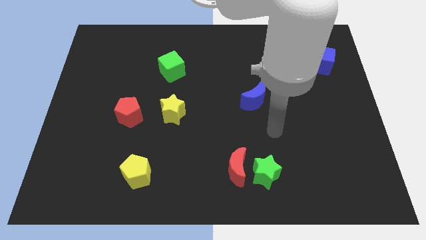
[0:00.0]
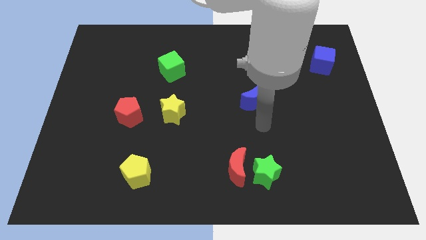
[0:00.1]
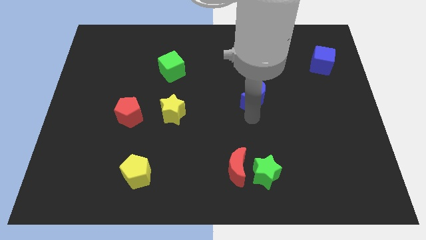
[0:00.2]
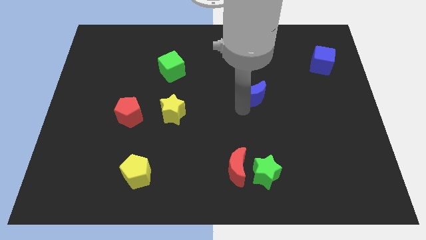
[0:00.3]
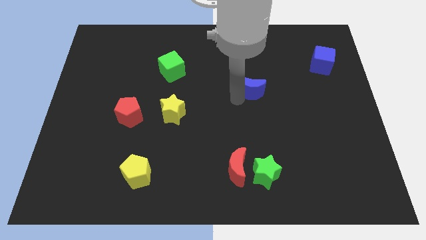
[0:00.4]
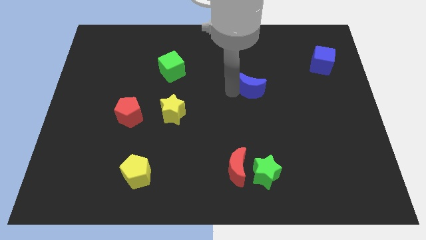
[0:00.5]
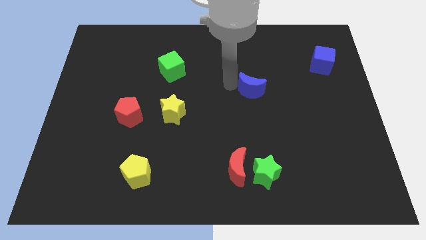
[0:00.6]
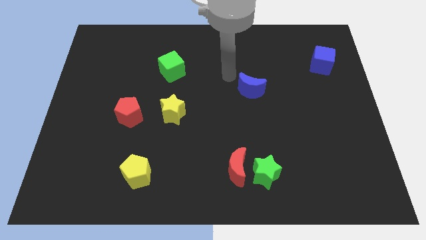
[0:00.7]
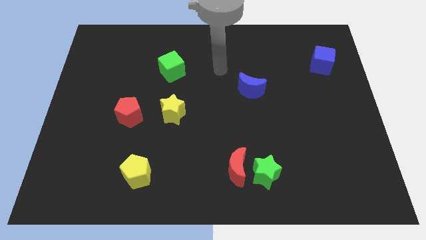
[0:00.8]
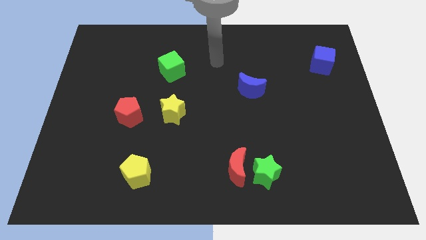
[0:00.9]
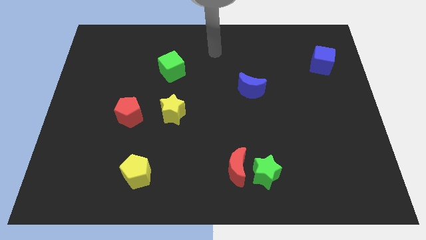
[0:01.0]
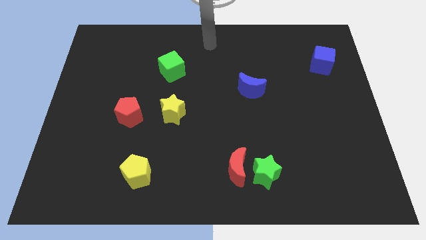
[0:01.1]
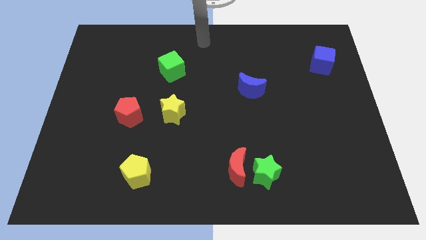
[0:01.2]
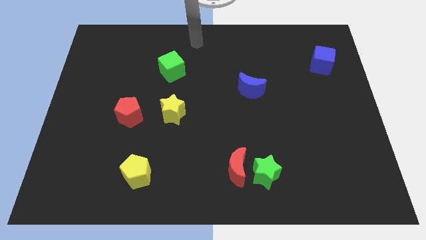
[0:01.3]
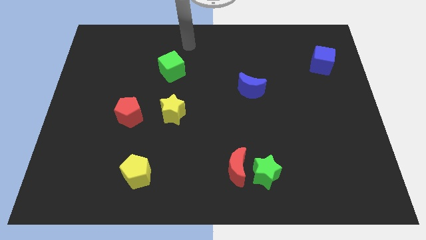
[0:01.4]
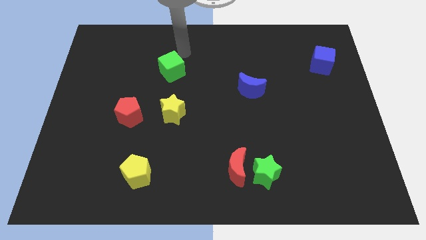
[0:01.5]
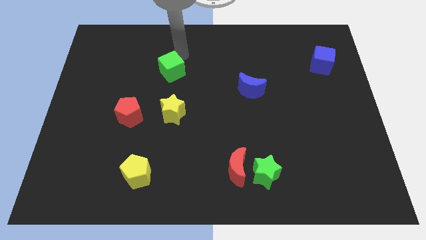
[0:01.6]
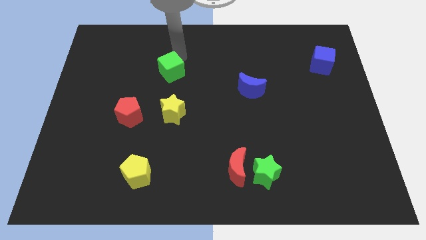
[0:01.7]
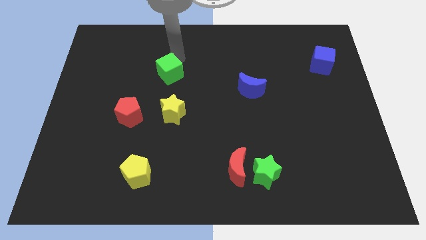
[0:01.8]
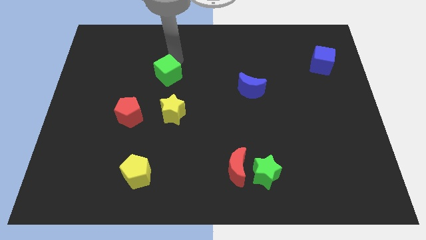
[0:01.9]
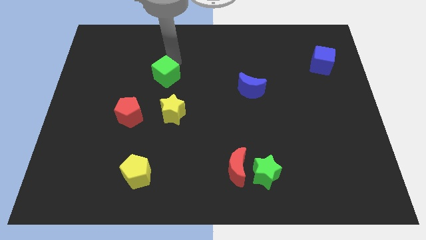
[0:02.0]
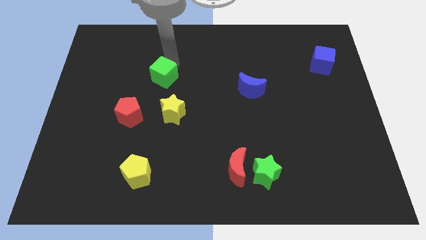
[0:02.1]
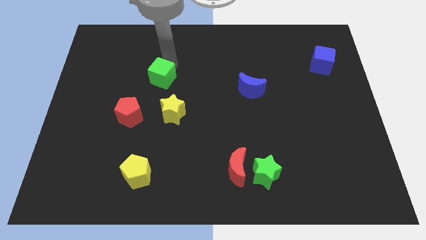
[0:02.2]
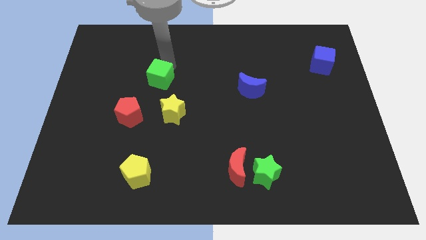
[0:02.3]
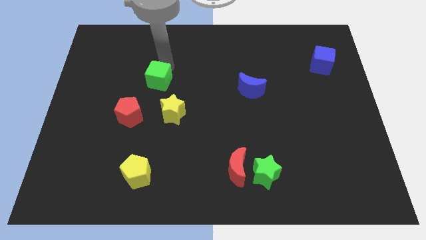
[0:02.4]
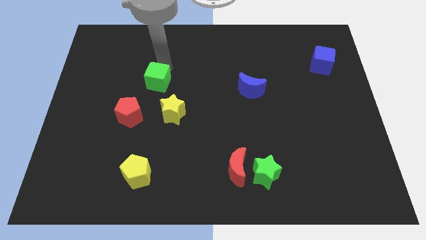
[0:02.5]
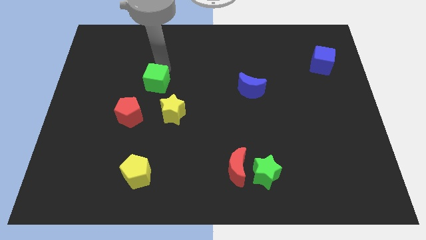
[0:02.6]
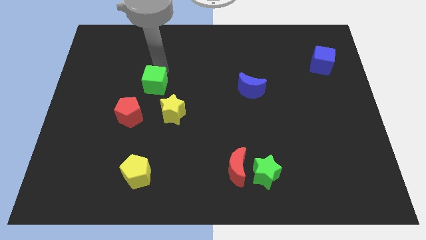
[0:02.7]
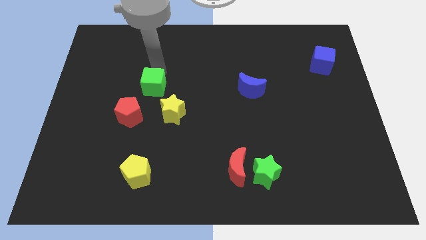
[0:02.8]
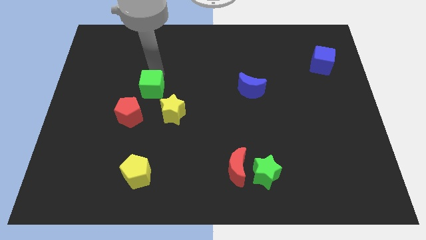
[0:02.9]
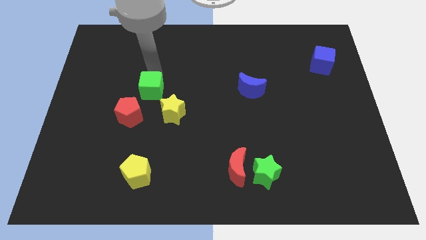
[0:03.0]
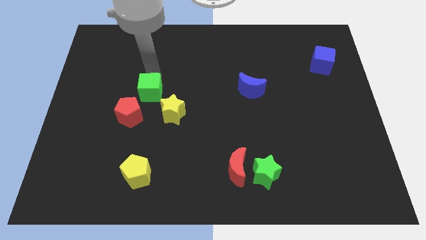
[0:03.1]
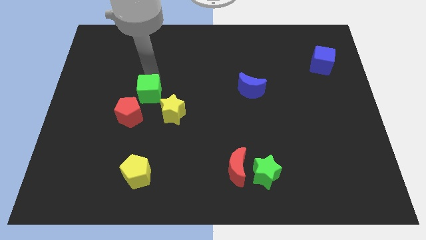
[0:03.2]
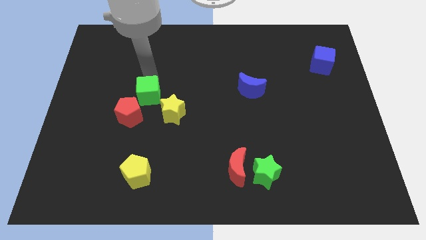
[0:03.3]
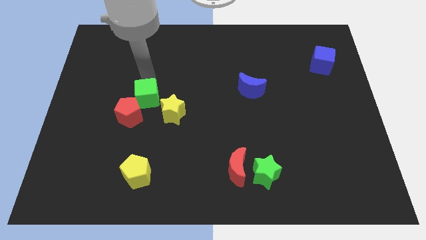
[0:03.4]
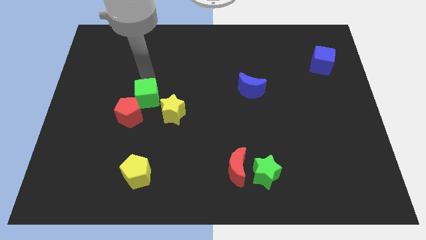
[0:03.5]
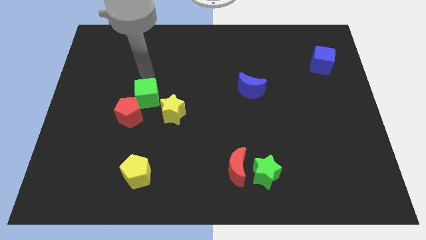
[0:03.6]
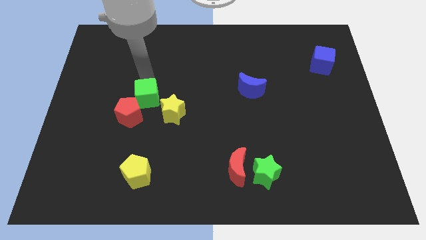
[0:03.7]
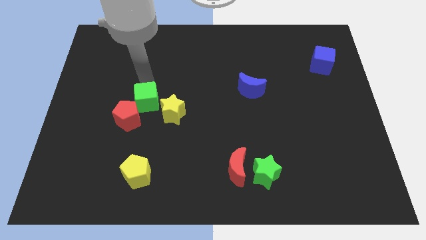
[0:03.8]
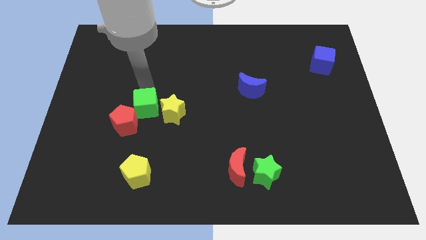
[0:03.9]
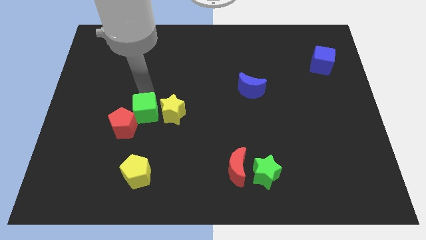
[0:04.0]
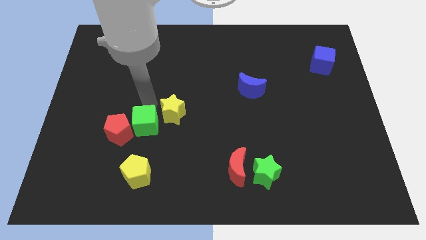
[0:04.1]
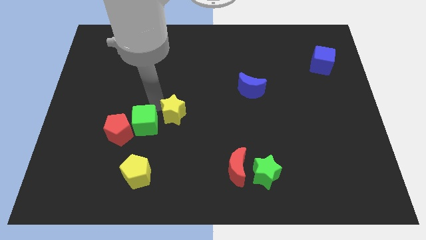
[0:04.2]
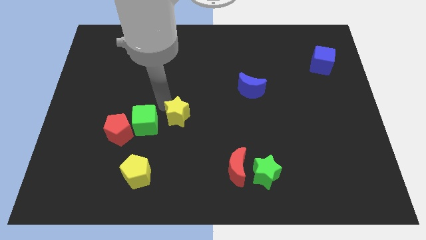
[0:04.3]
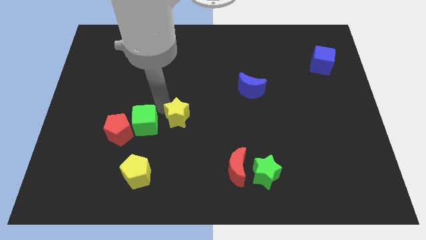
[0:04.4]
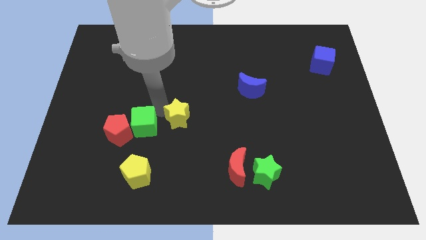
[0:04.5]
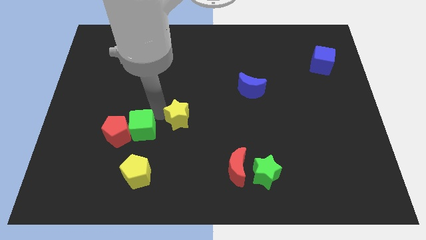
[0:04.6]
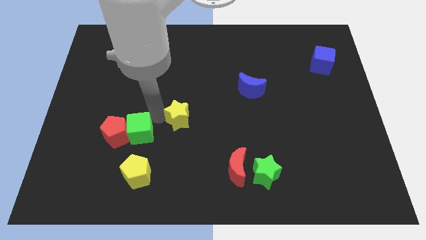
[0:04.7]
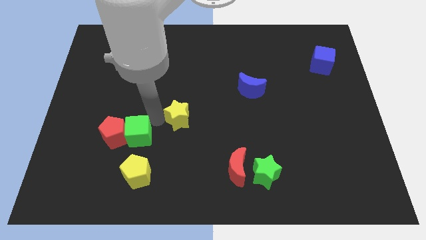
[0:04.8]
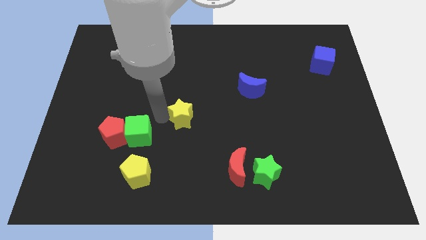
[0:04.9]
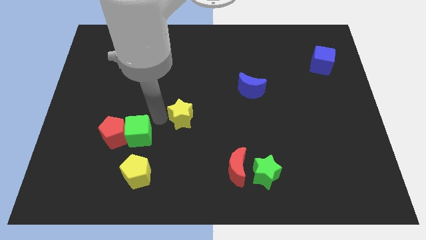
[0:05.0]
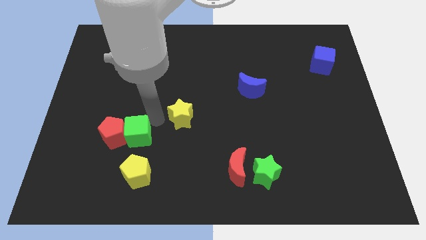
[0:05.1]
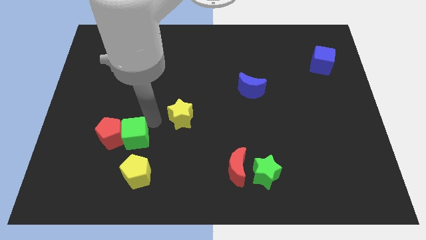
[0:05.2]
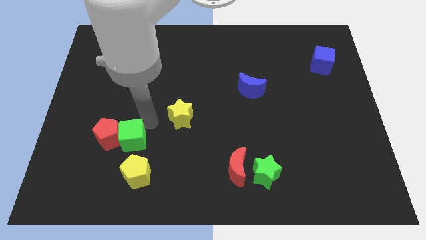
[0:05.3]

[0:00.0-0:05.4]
slide the green cube to the top left side of the yellow pentagon

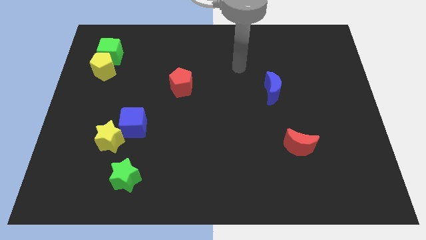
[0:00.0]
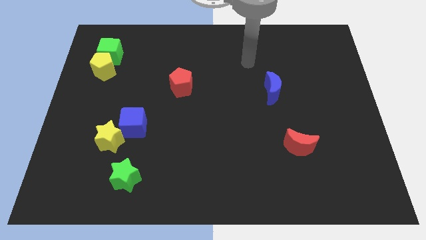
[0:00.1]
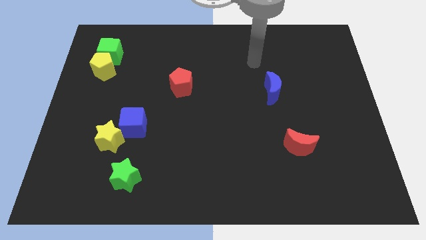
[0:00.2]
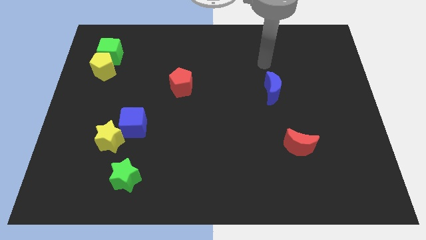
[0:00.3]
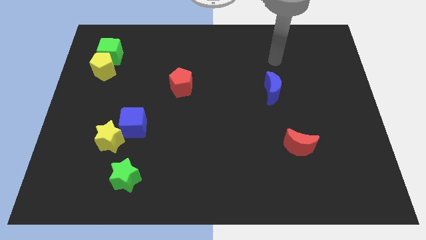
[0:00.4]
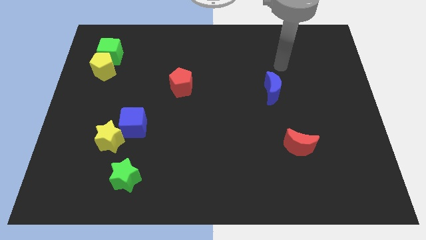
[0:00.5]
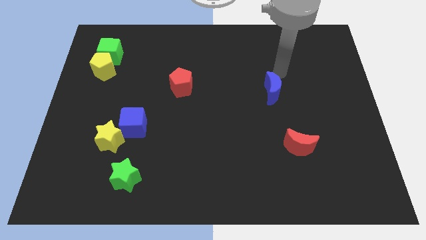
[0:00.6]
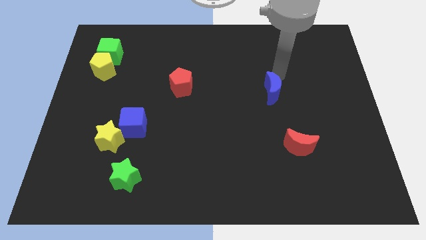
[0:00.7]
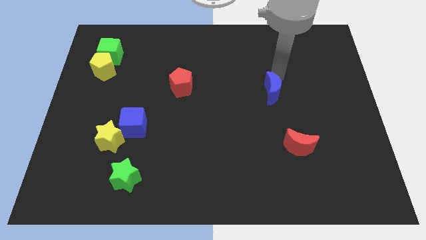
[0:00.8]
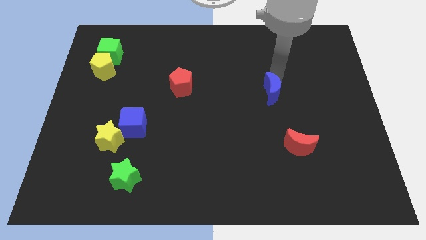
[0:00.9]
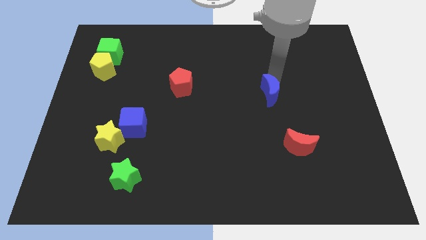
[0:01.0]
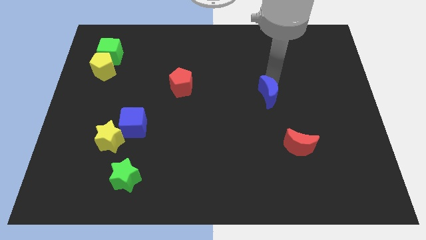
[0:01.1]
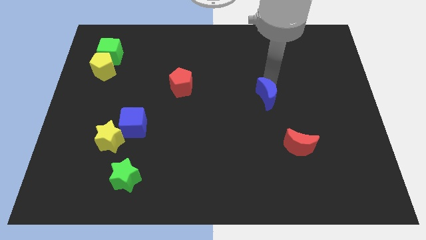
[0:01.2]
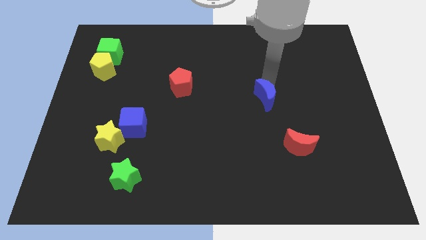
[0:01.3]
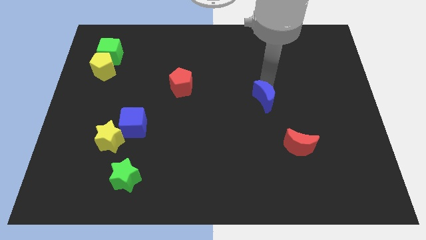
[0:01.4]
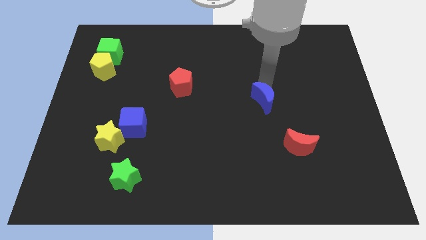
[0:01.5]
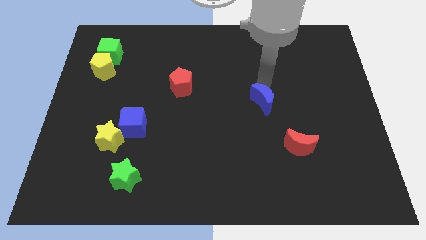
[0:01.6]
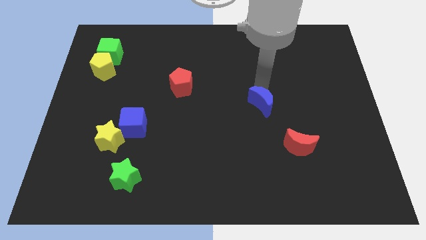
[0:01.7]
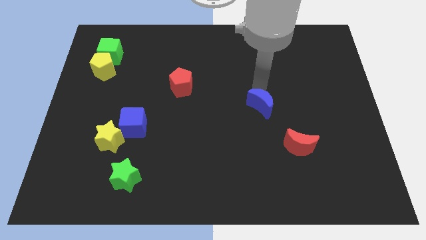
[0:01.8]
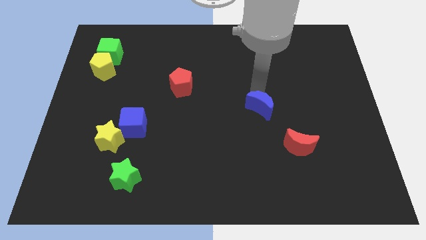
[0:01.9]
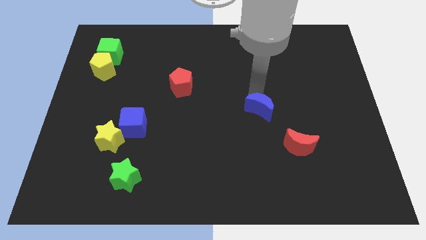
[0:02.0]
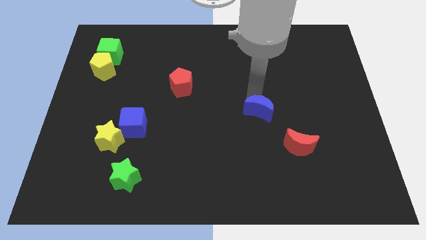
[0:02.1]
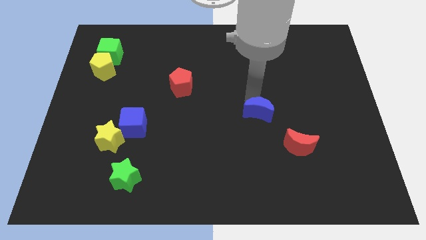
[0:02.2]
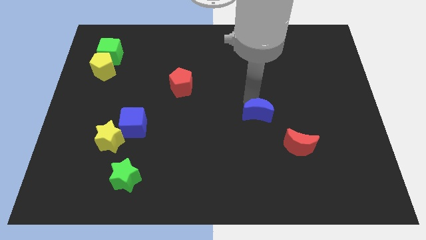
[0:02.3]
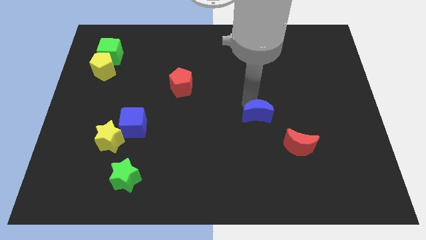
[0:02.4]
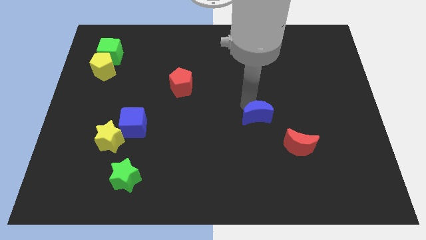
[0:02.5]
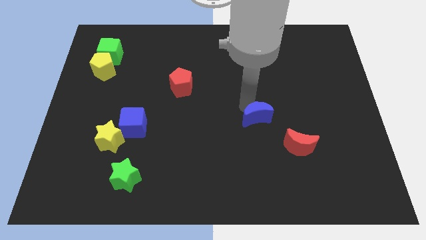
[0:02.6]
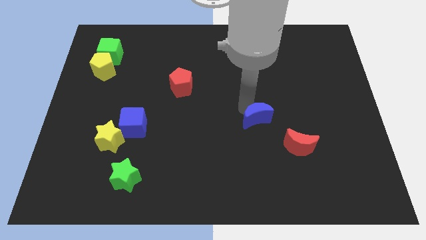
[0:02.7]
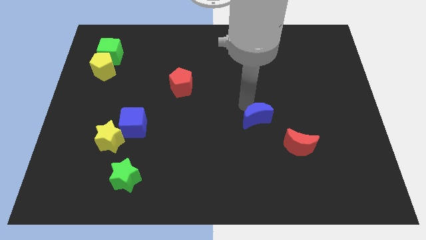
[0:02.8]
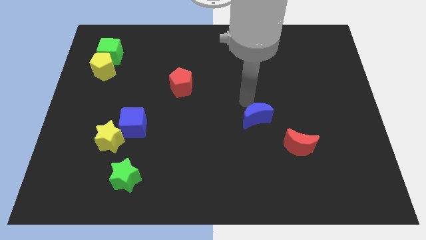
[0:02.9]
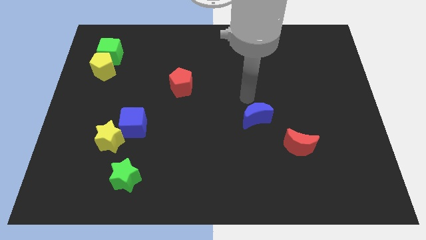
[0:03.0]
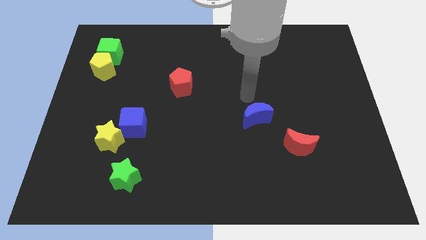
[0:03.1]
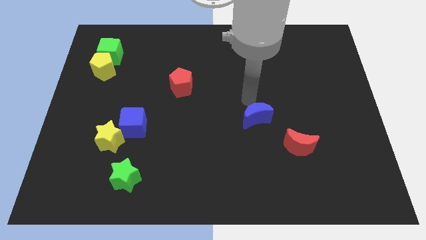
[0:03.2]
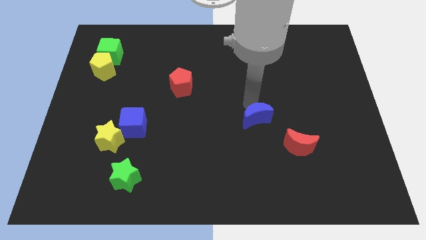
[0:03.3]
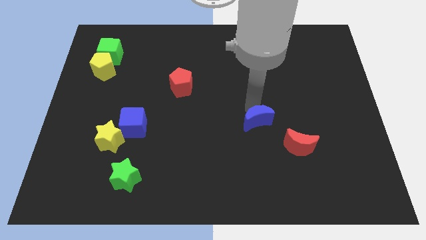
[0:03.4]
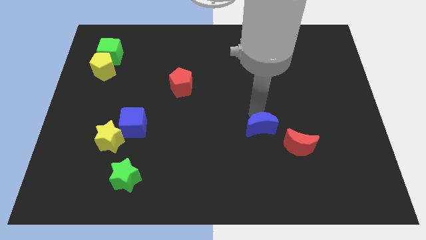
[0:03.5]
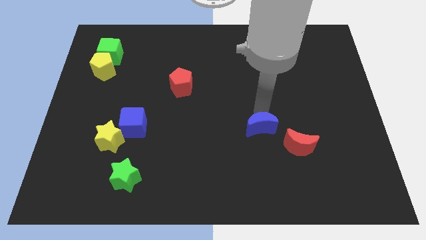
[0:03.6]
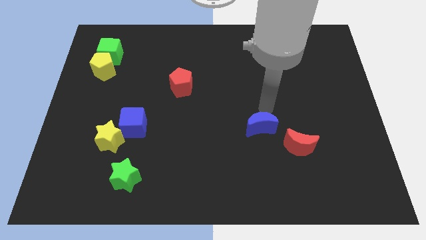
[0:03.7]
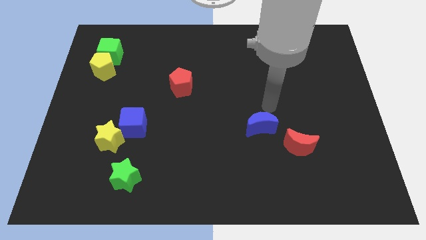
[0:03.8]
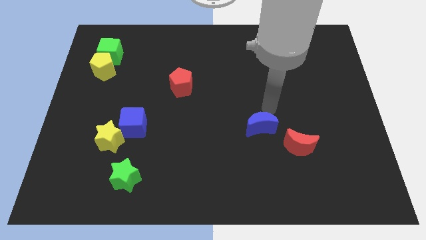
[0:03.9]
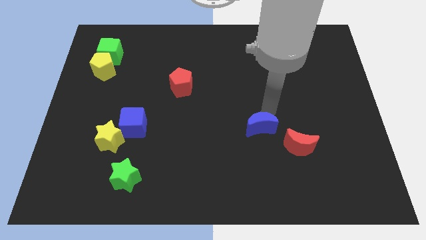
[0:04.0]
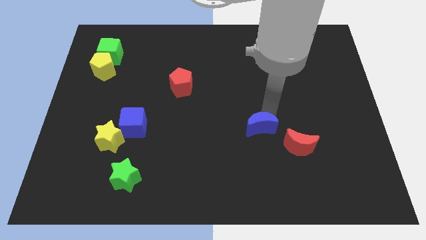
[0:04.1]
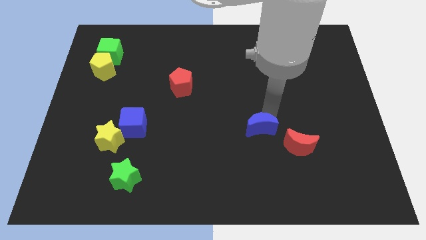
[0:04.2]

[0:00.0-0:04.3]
push the blue moon to the left of the red moon
